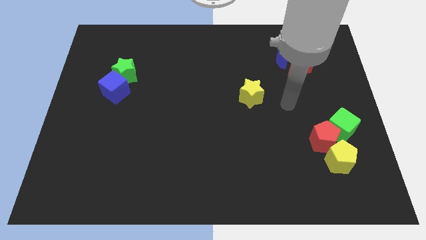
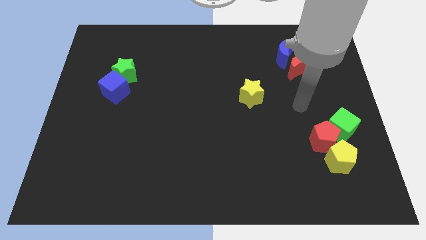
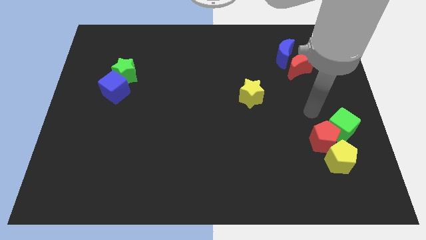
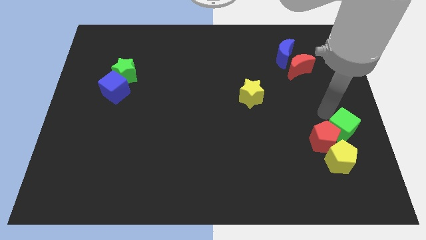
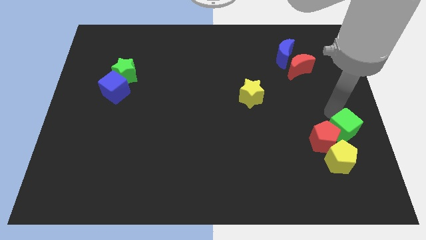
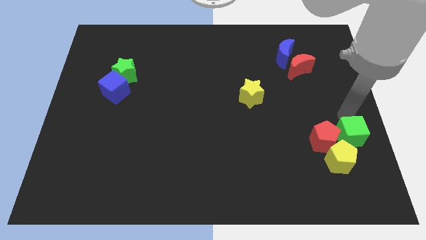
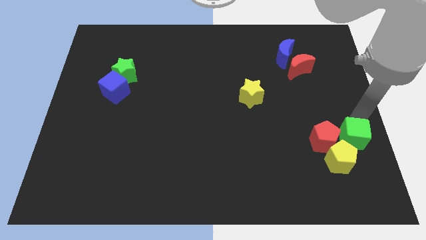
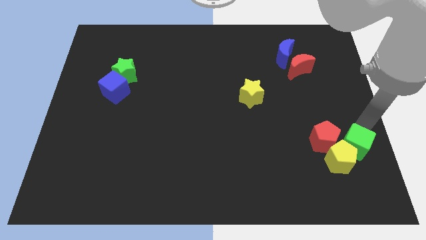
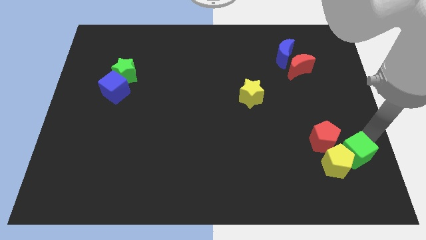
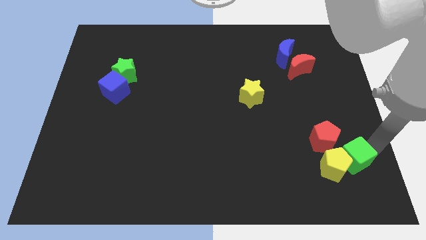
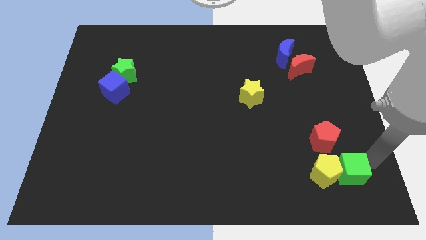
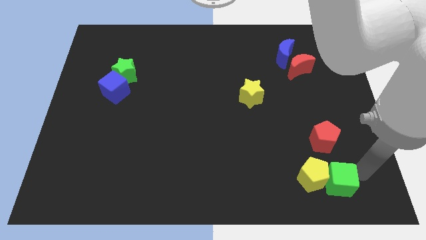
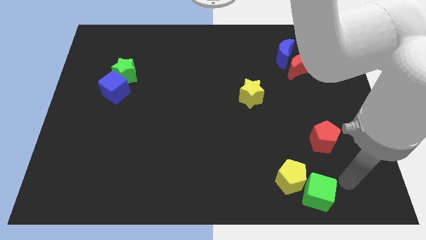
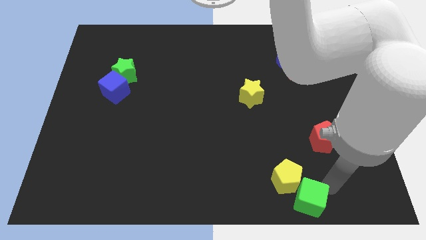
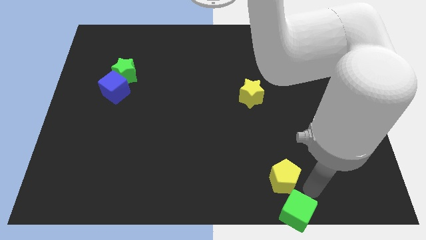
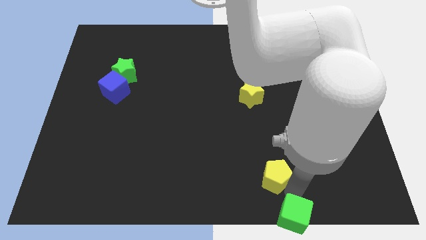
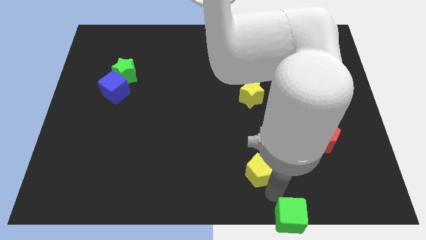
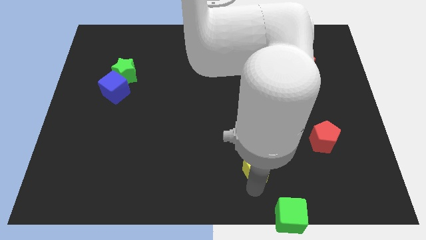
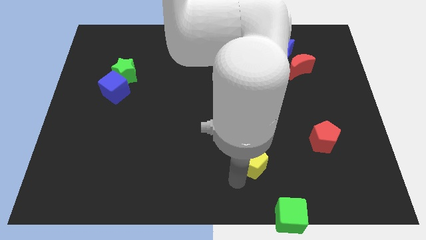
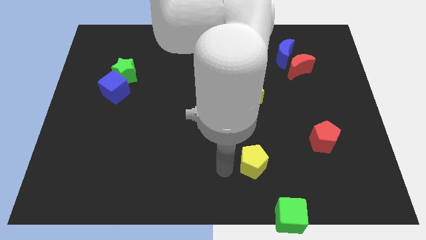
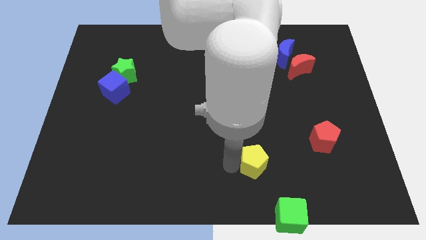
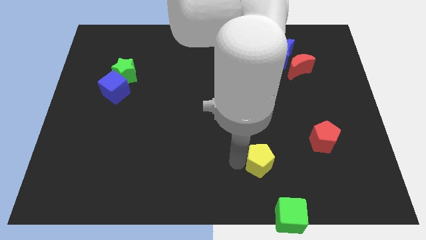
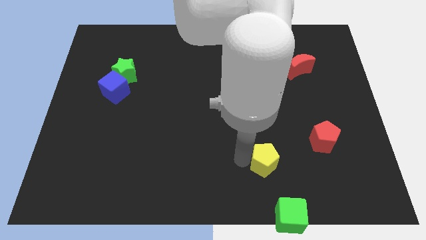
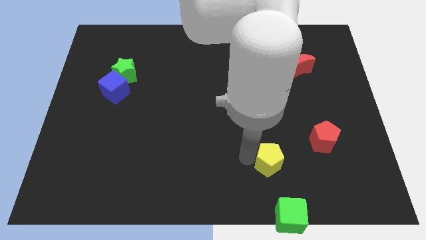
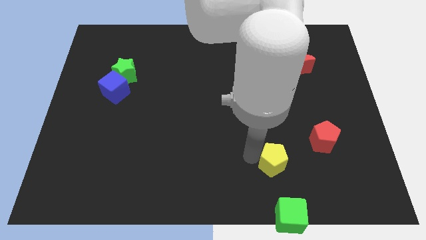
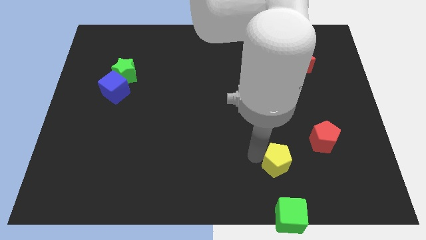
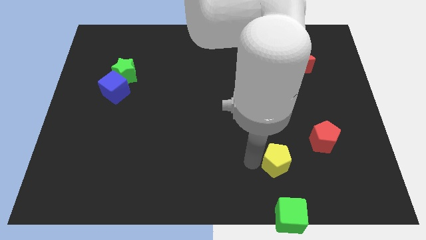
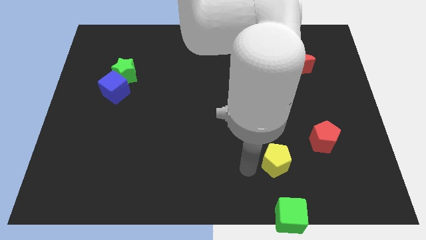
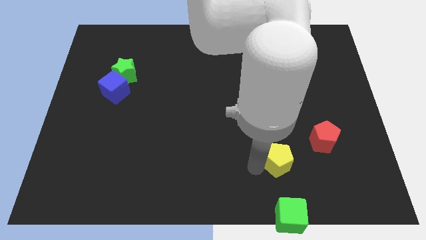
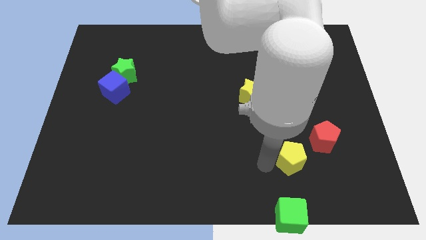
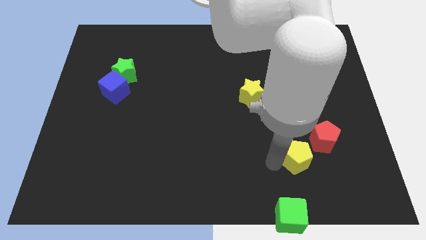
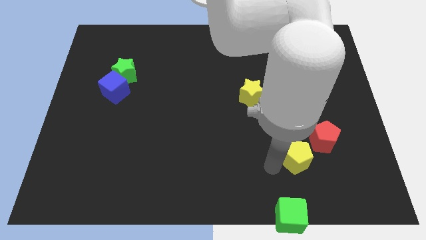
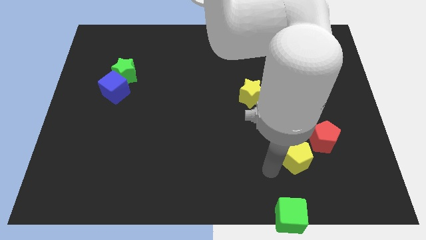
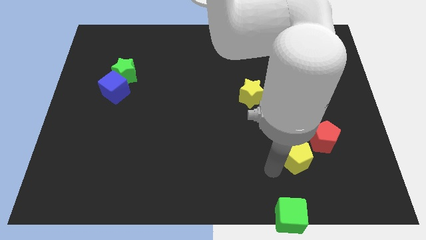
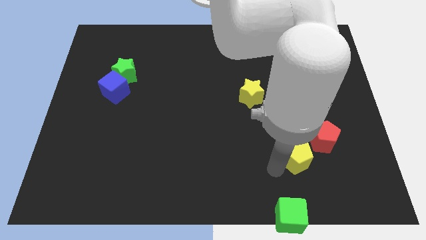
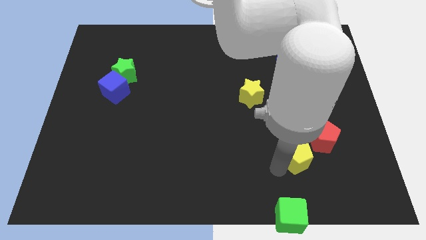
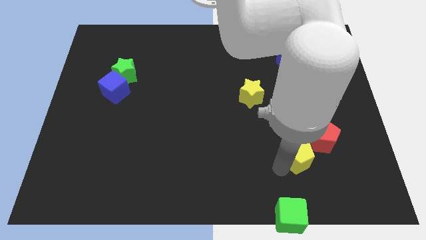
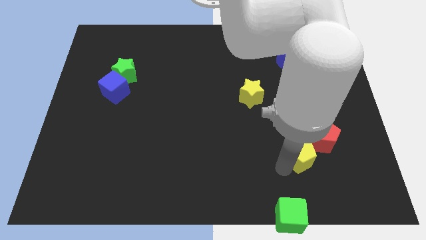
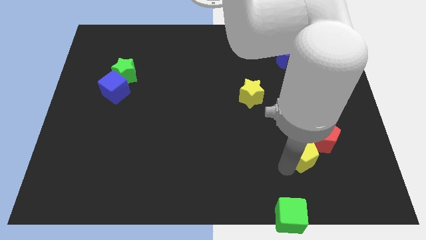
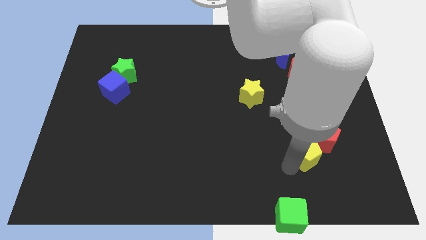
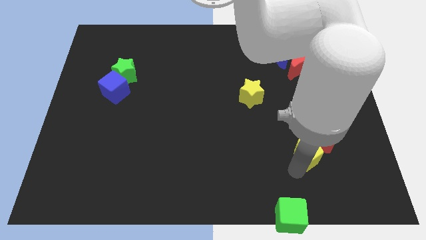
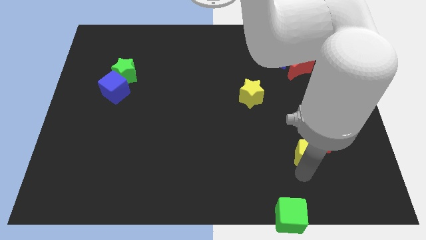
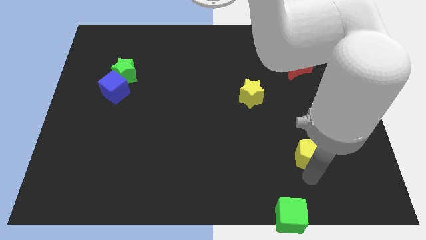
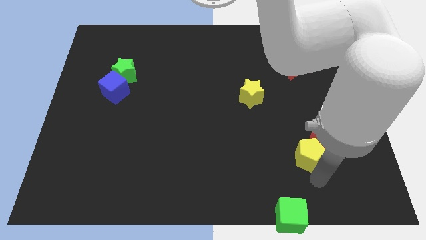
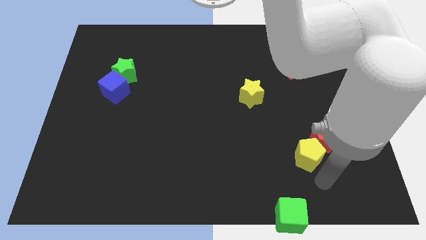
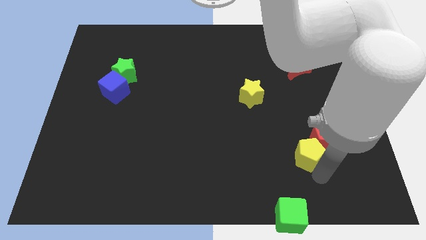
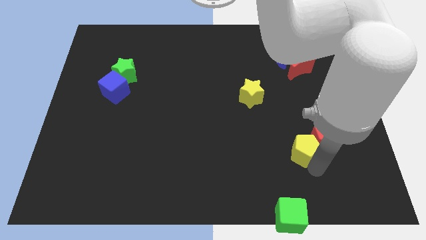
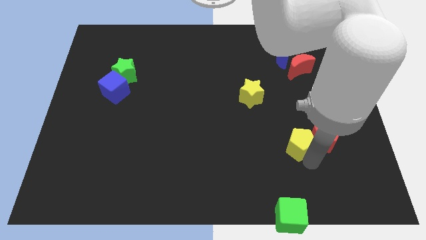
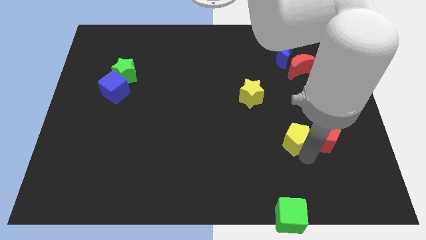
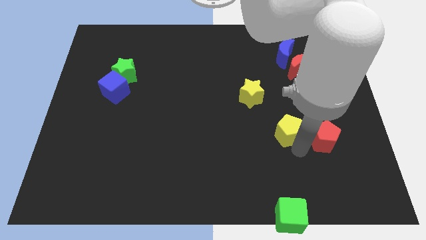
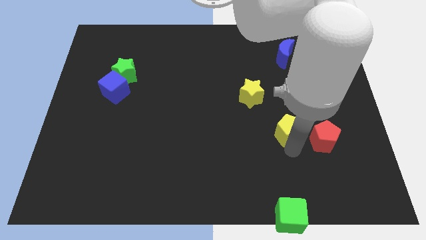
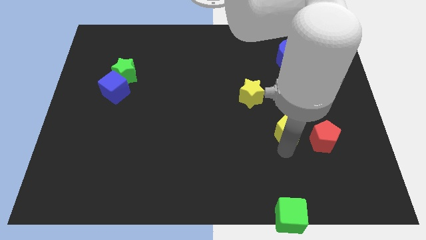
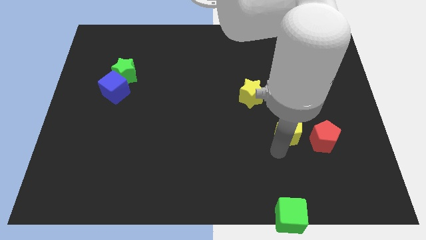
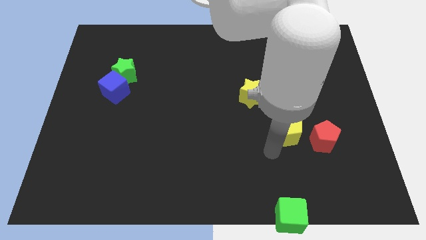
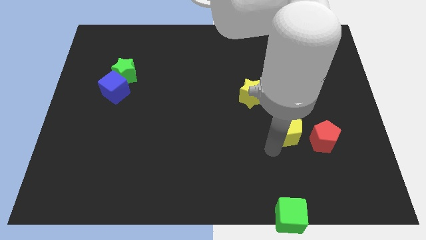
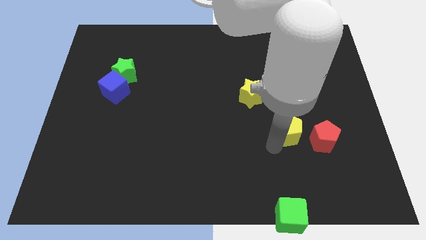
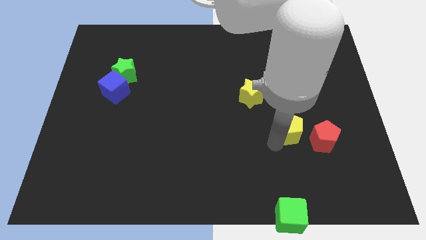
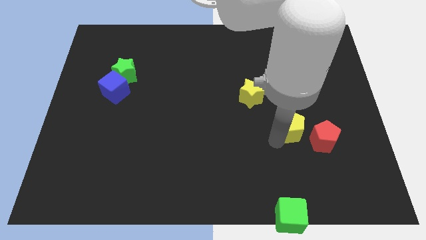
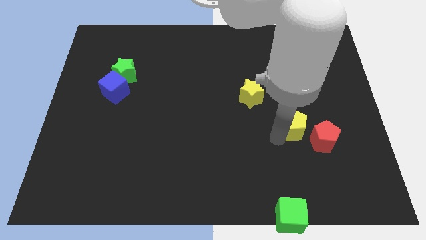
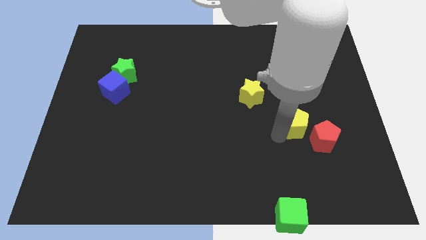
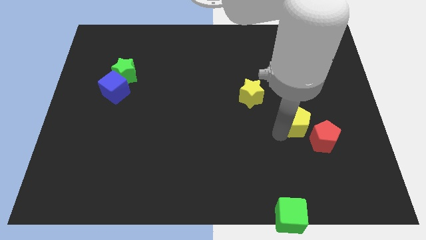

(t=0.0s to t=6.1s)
push the yellow pentagon up a little bit

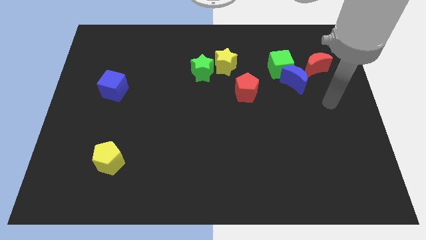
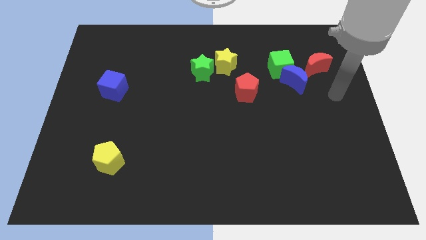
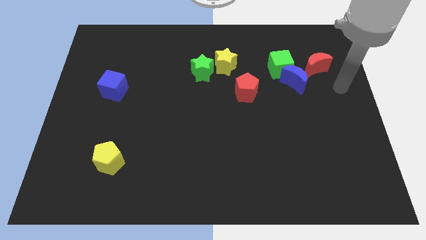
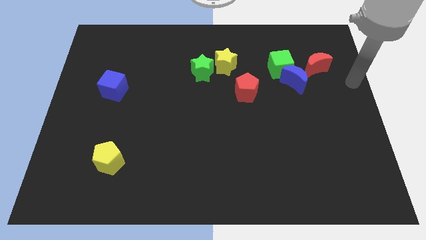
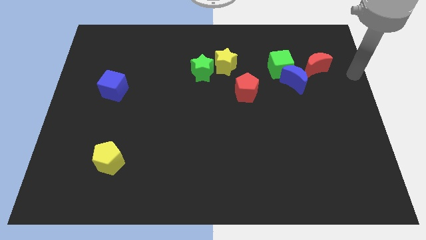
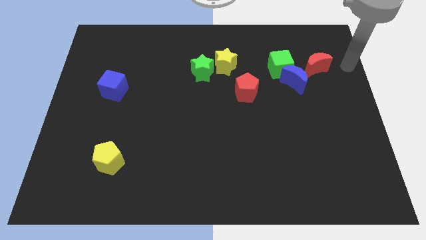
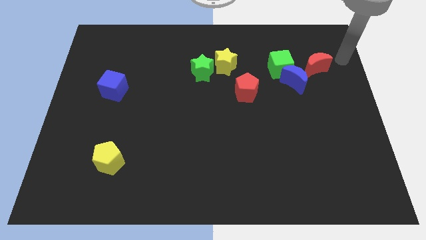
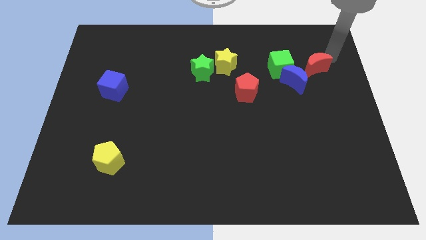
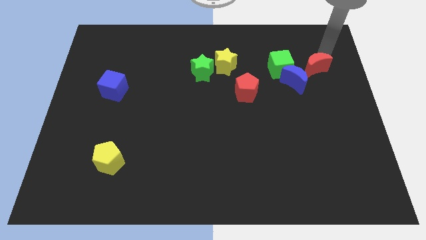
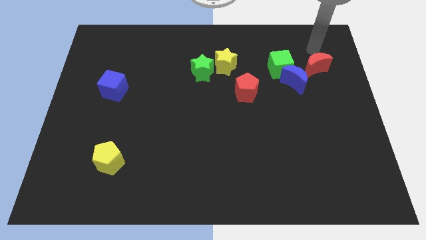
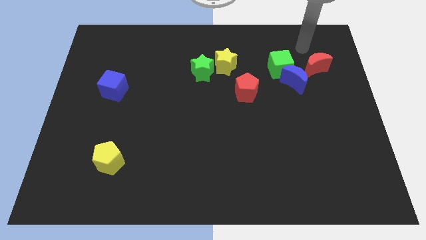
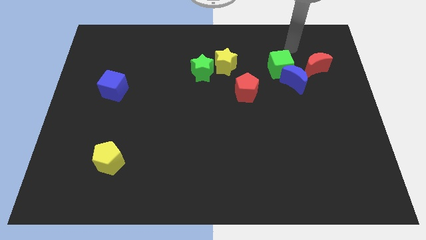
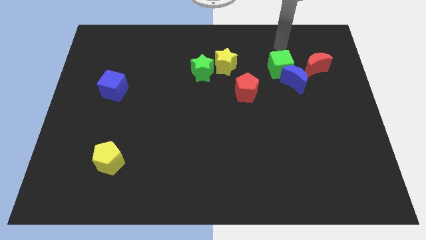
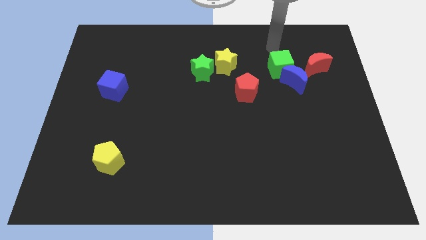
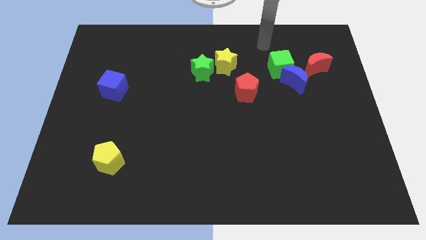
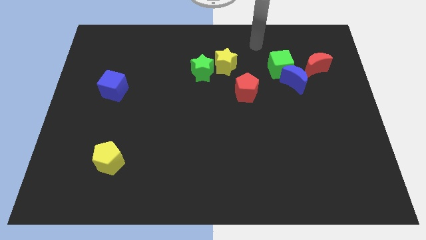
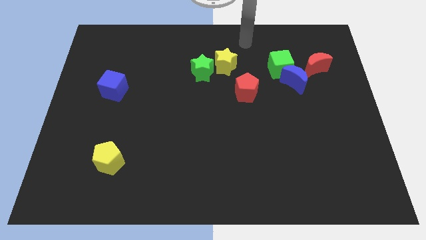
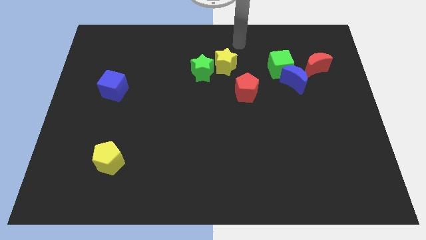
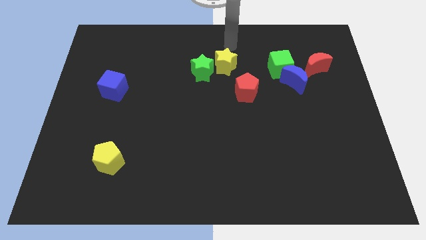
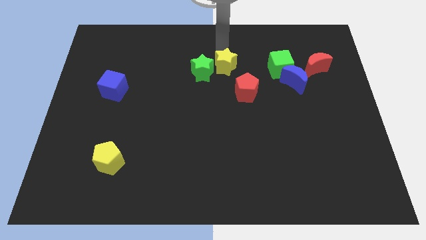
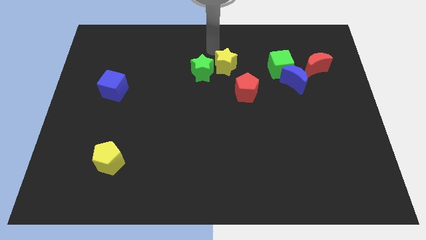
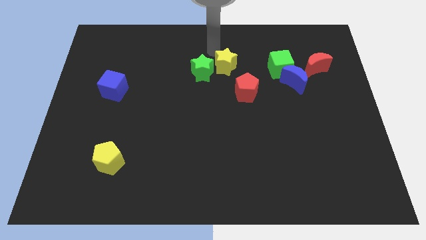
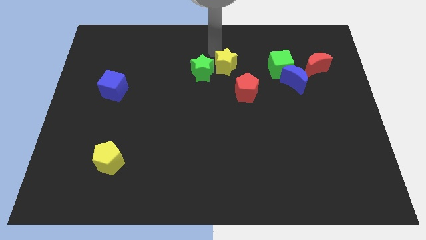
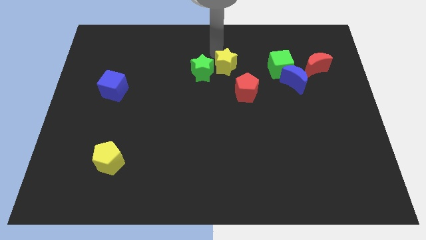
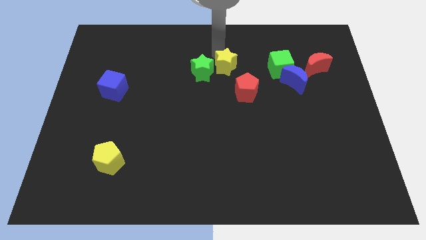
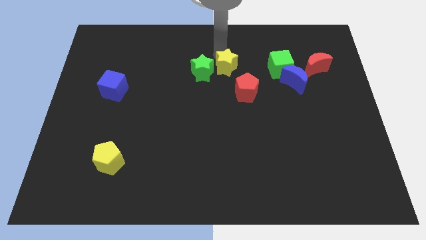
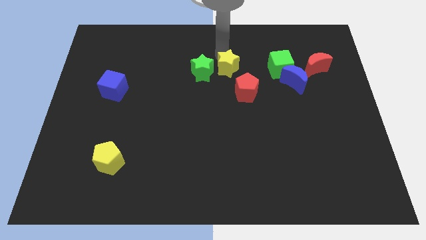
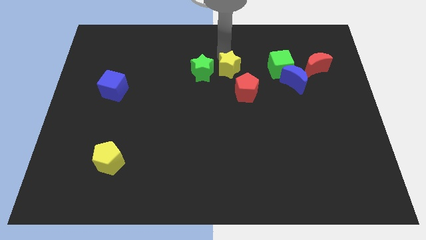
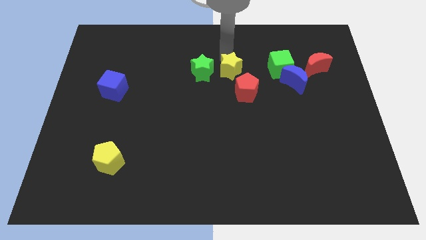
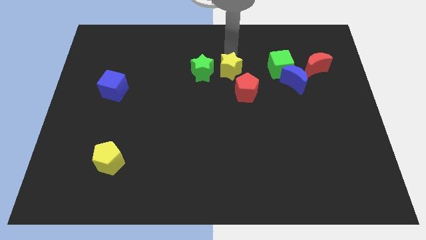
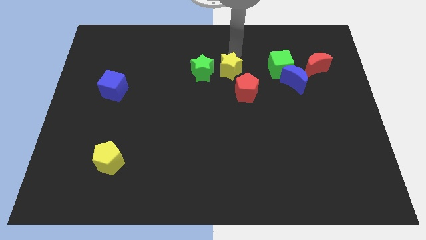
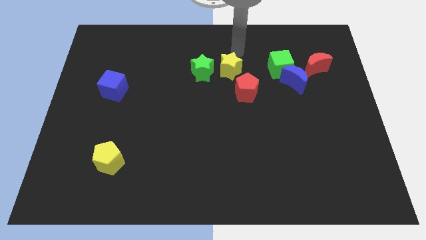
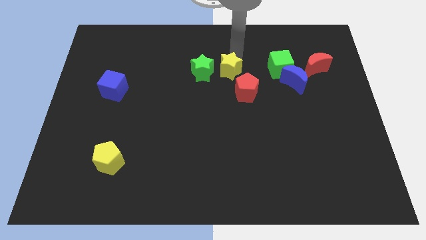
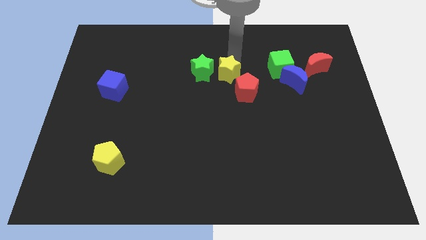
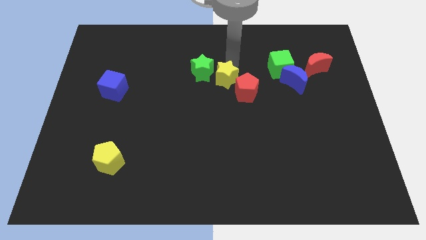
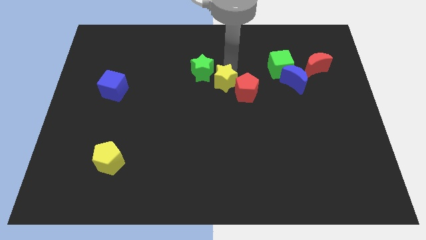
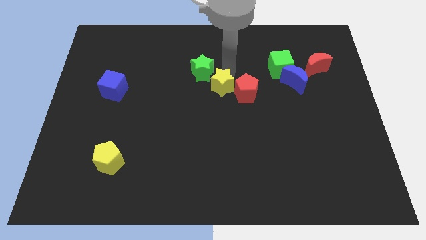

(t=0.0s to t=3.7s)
slide the yellow star down a little
